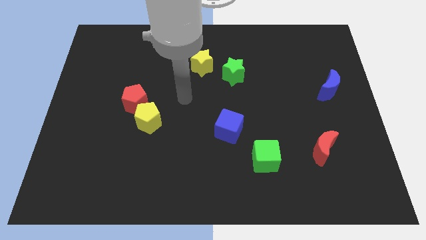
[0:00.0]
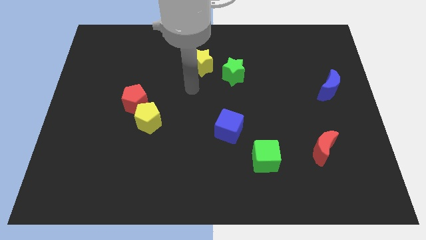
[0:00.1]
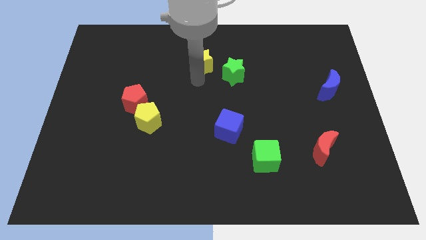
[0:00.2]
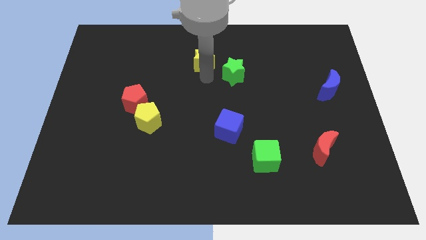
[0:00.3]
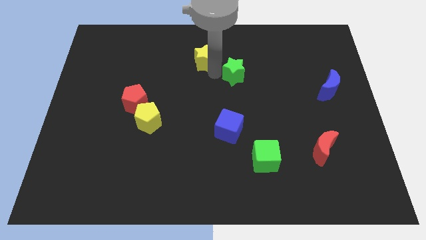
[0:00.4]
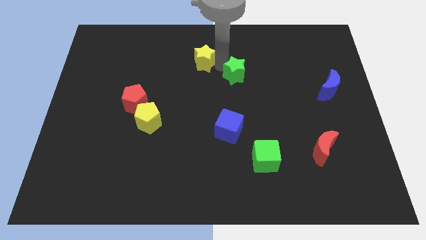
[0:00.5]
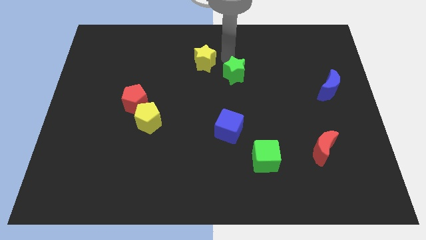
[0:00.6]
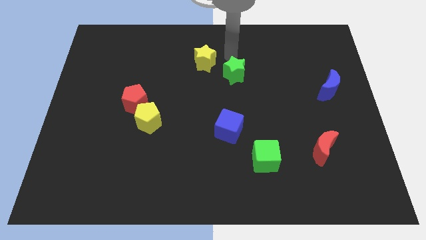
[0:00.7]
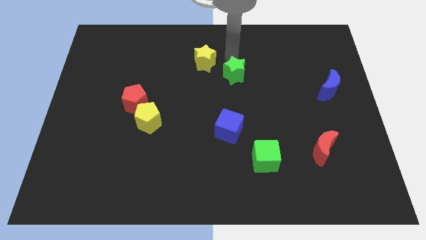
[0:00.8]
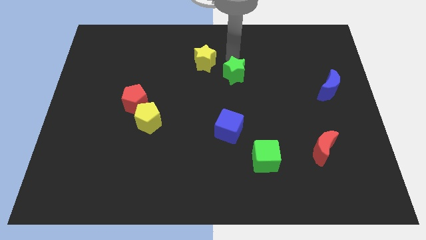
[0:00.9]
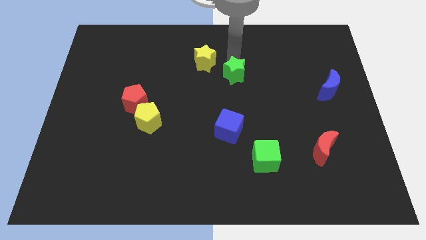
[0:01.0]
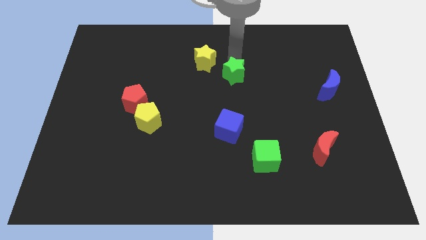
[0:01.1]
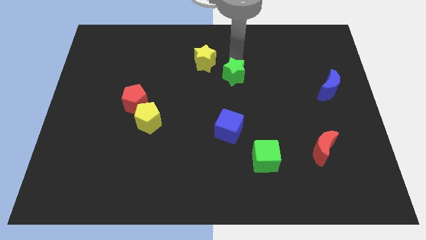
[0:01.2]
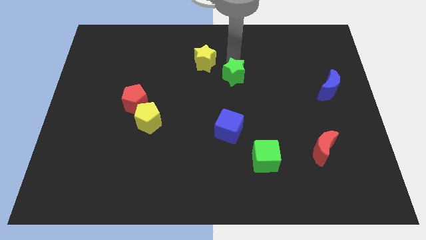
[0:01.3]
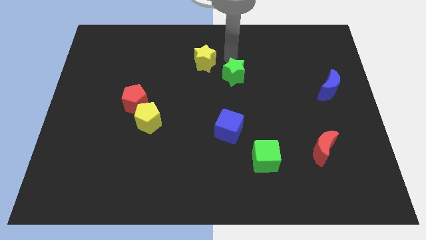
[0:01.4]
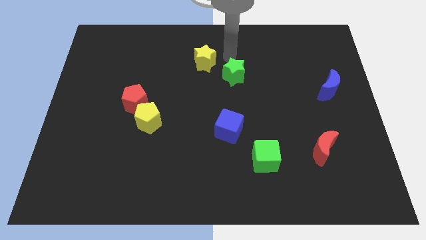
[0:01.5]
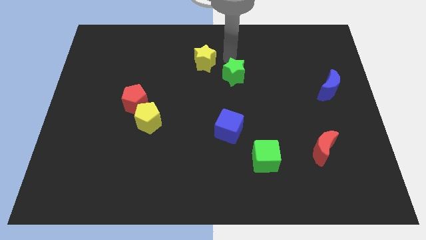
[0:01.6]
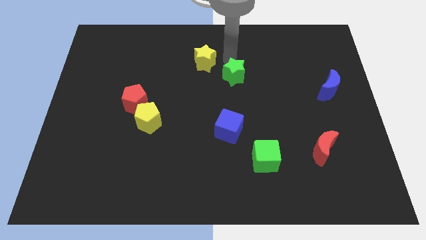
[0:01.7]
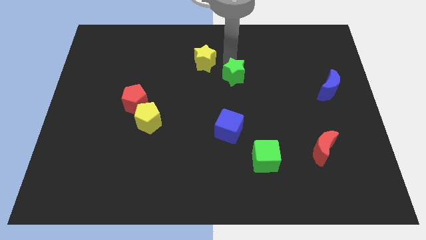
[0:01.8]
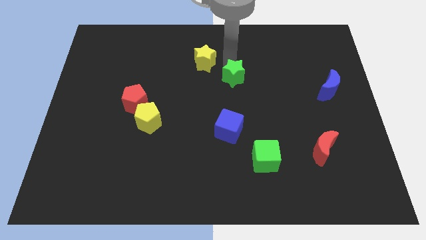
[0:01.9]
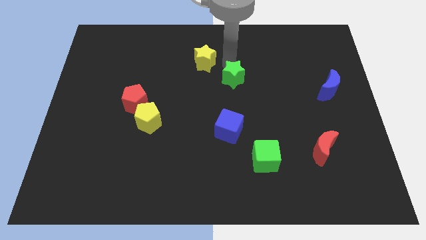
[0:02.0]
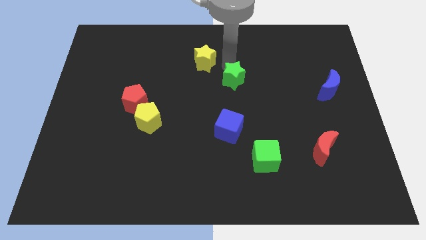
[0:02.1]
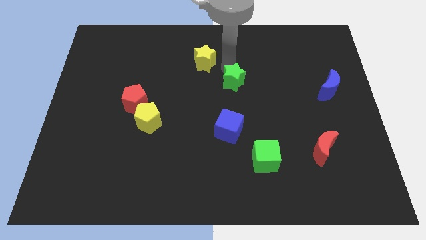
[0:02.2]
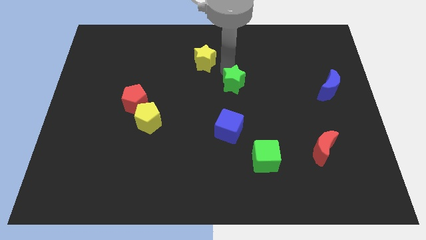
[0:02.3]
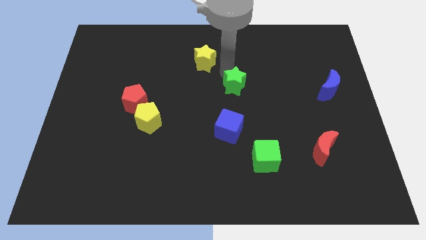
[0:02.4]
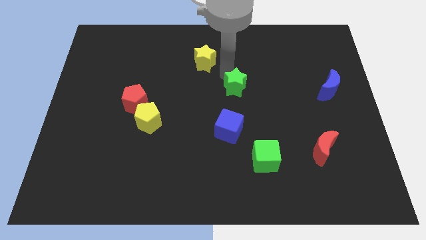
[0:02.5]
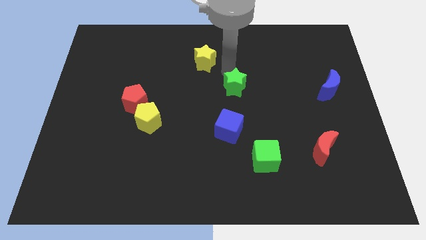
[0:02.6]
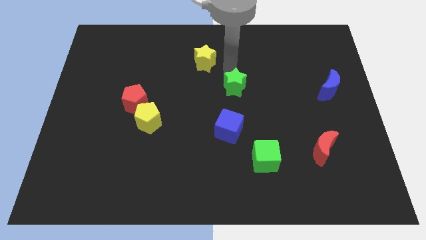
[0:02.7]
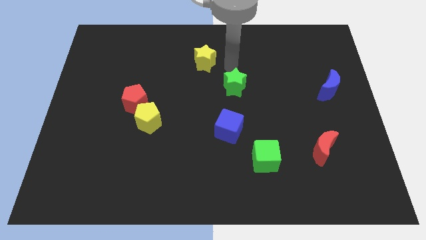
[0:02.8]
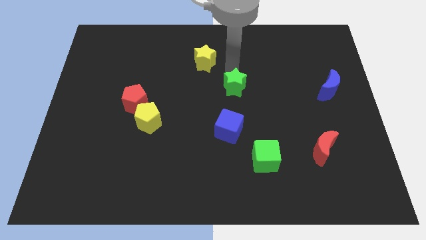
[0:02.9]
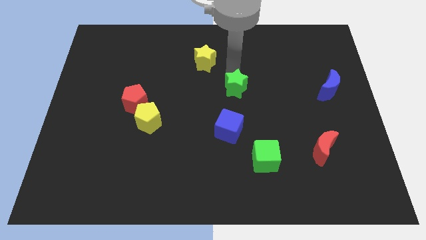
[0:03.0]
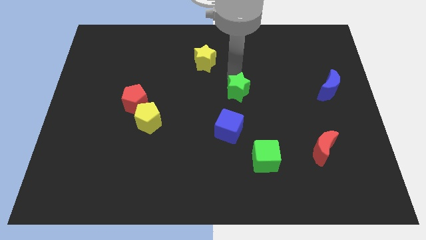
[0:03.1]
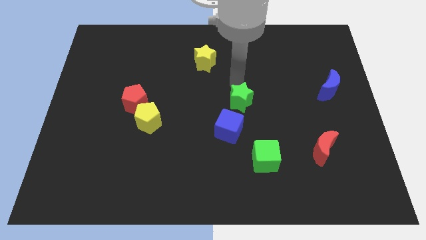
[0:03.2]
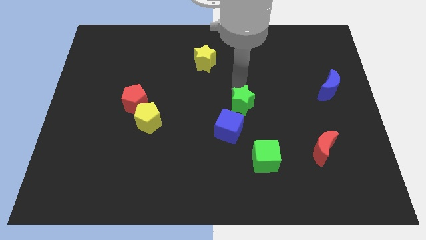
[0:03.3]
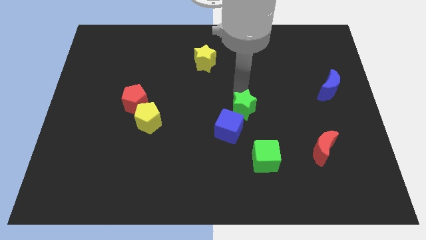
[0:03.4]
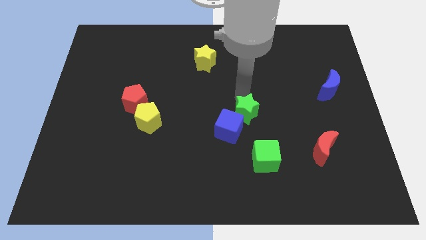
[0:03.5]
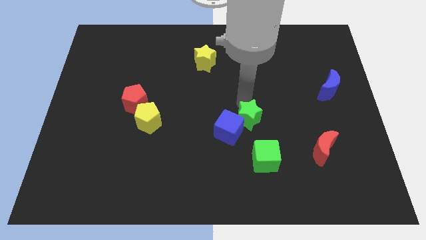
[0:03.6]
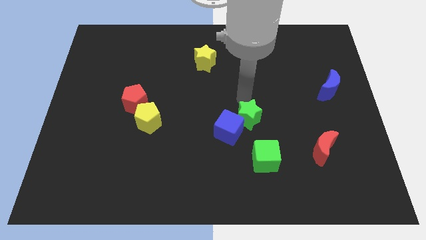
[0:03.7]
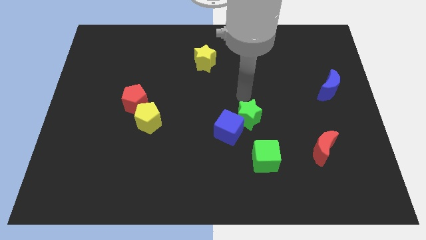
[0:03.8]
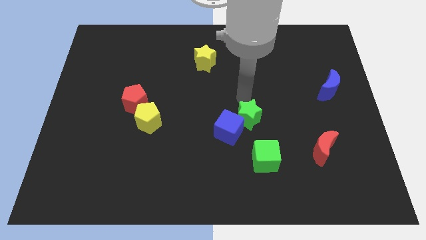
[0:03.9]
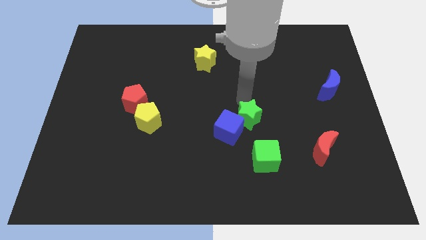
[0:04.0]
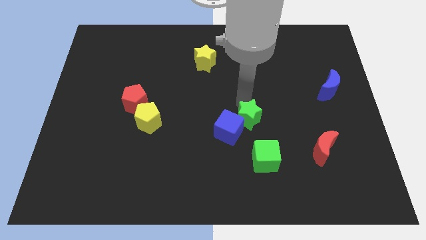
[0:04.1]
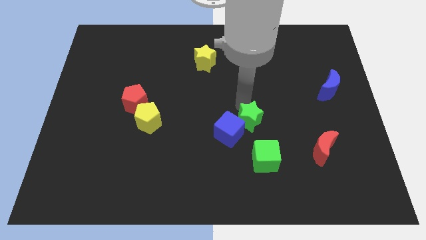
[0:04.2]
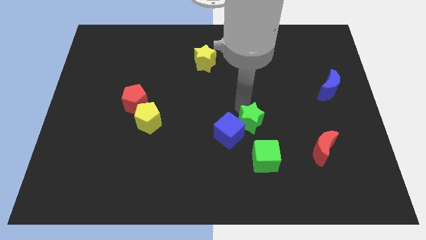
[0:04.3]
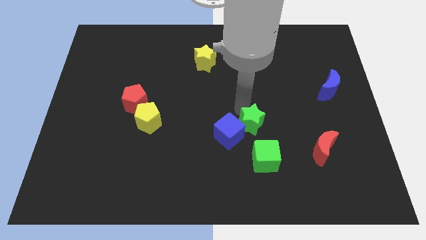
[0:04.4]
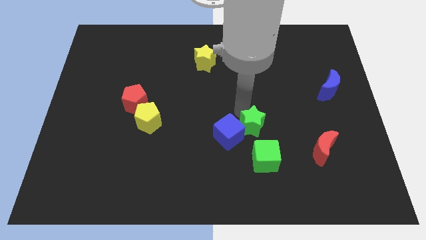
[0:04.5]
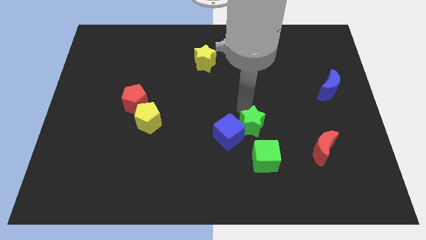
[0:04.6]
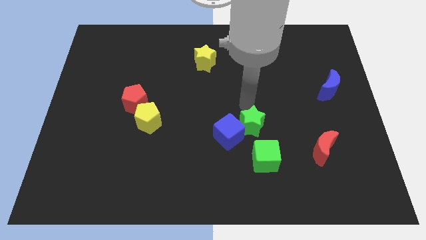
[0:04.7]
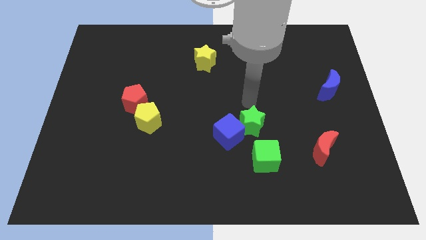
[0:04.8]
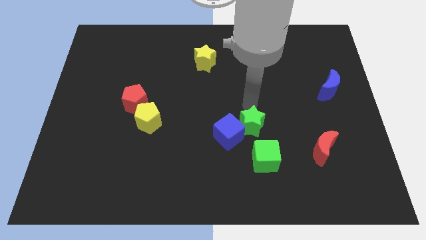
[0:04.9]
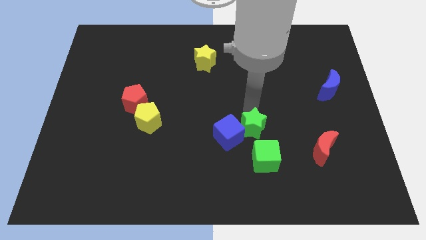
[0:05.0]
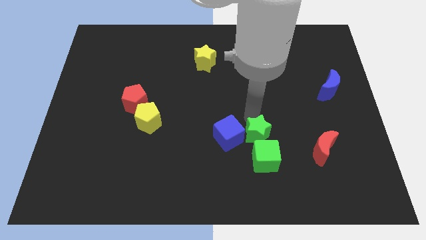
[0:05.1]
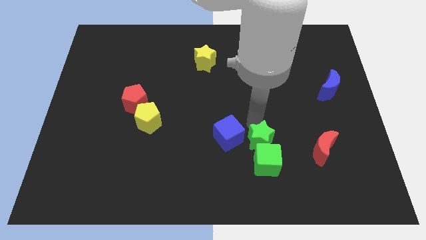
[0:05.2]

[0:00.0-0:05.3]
push the green star next to the green cube

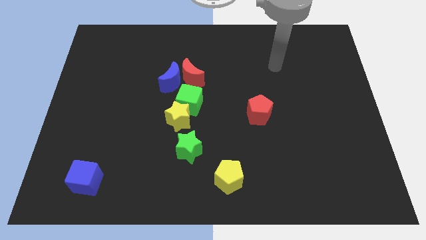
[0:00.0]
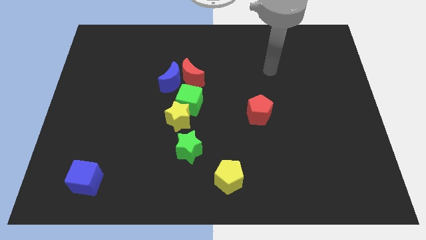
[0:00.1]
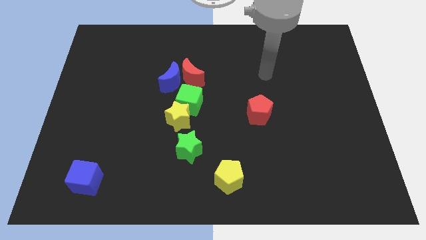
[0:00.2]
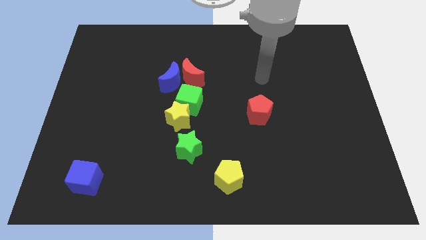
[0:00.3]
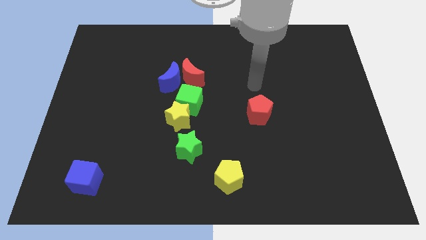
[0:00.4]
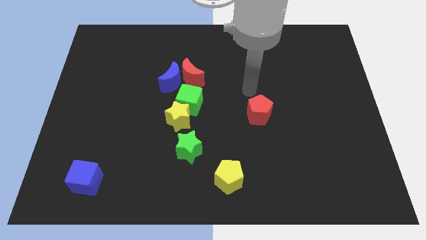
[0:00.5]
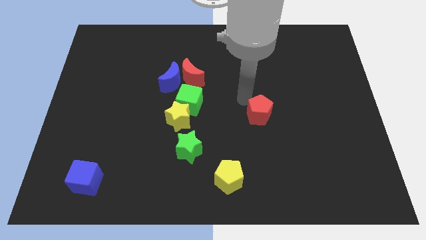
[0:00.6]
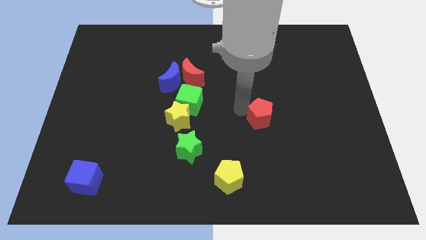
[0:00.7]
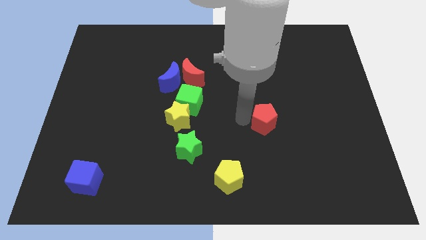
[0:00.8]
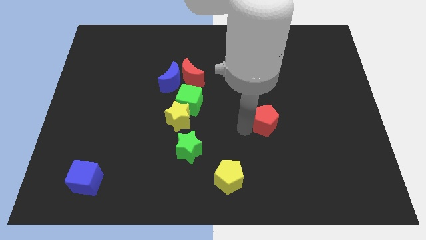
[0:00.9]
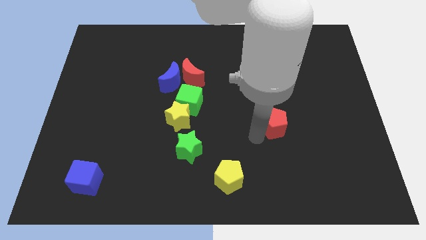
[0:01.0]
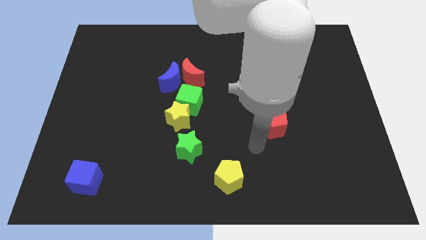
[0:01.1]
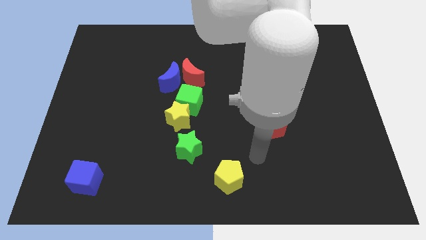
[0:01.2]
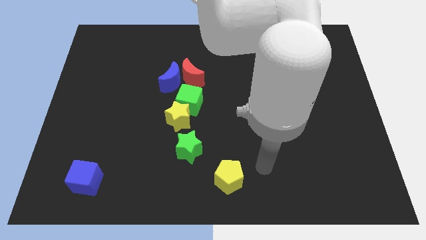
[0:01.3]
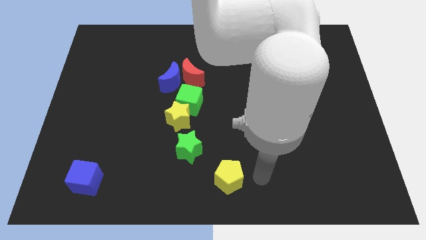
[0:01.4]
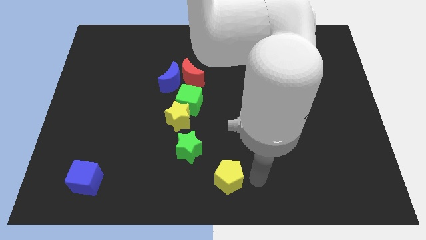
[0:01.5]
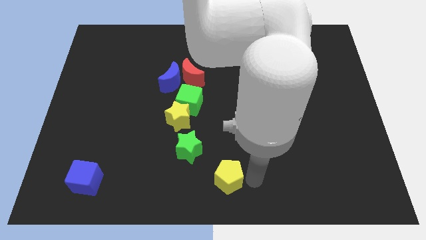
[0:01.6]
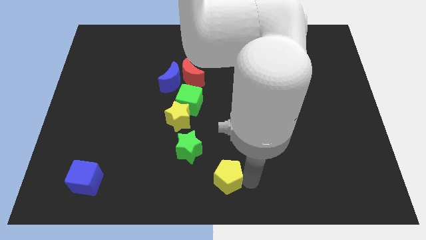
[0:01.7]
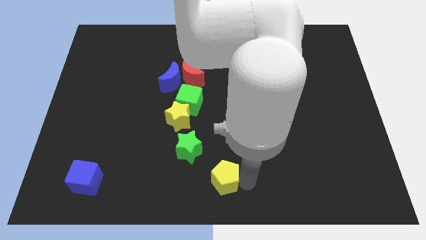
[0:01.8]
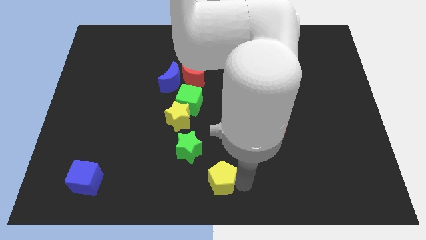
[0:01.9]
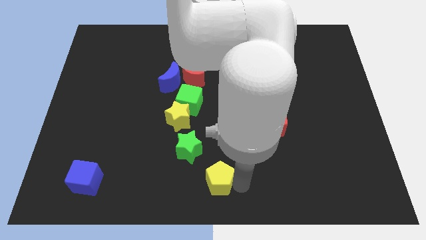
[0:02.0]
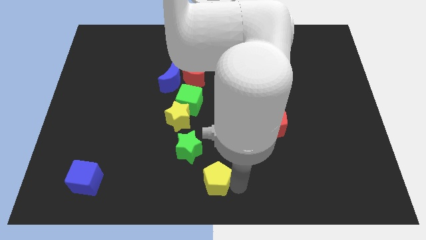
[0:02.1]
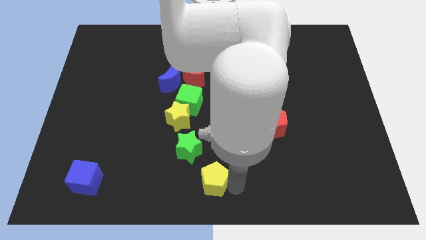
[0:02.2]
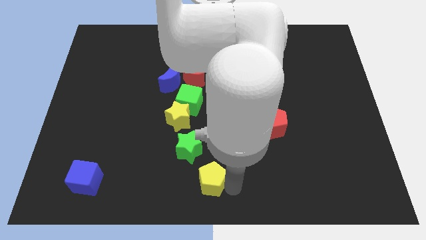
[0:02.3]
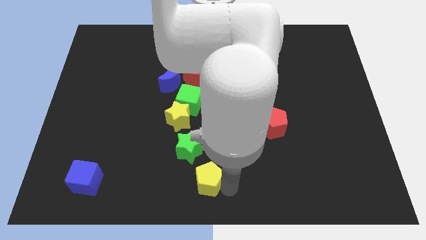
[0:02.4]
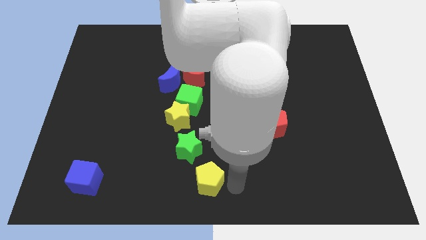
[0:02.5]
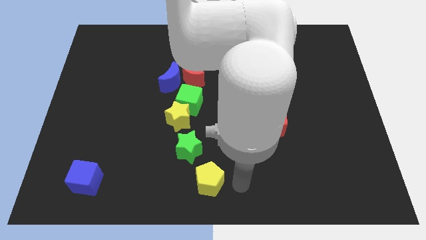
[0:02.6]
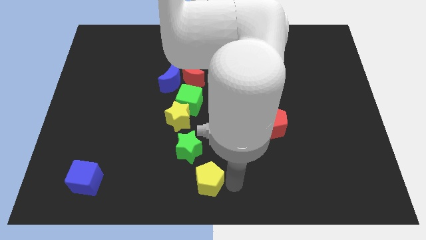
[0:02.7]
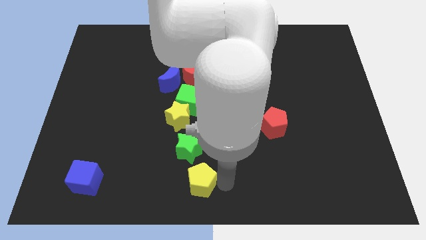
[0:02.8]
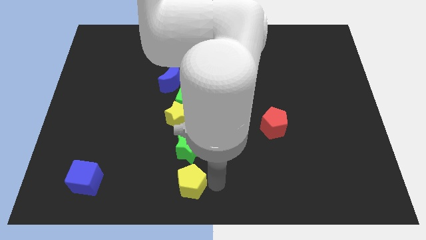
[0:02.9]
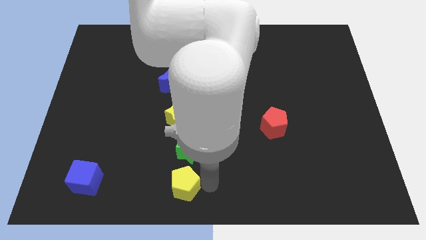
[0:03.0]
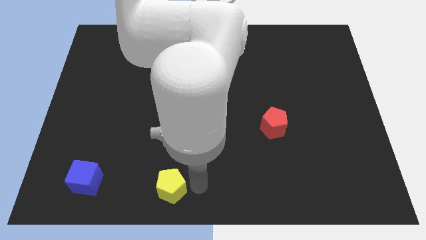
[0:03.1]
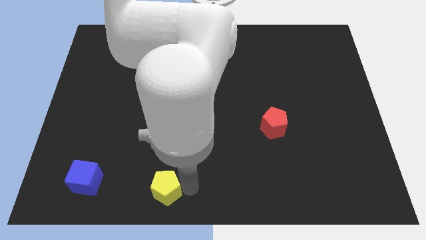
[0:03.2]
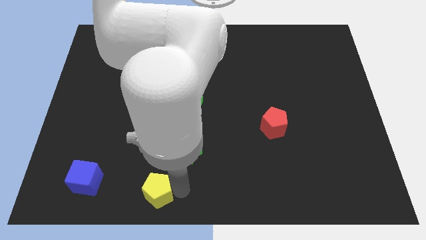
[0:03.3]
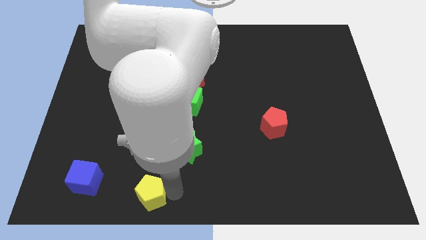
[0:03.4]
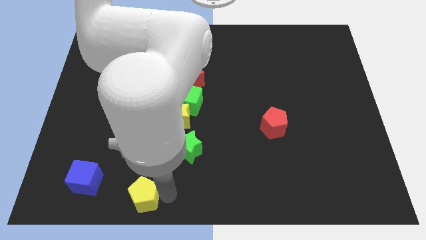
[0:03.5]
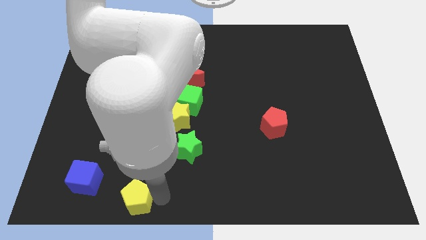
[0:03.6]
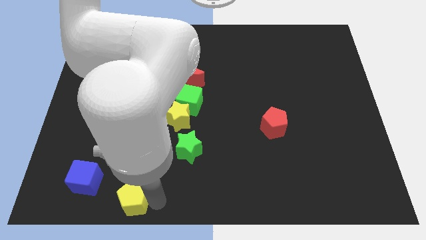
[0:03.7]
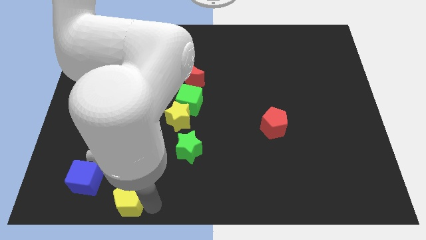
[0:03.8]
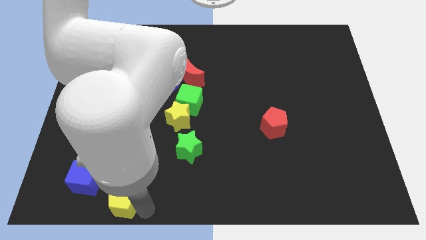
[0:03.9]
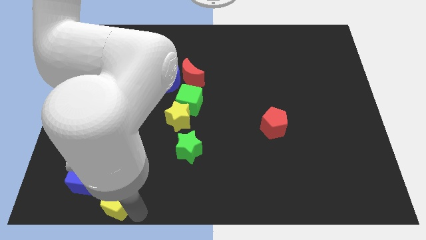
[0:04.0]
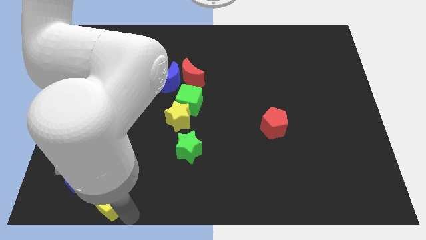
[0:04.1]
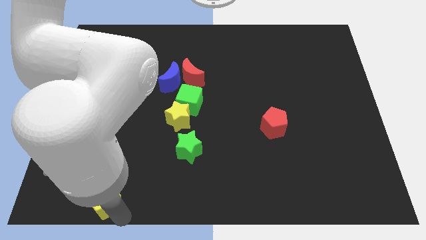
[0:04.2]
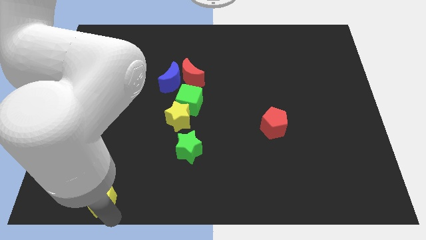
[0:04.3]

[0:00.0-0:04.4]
push the yellow pentagon next to the blue cube
